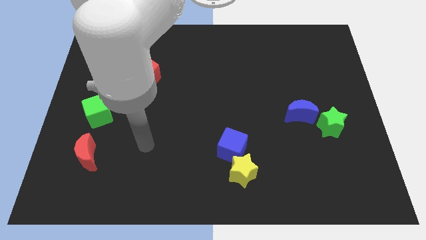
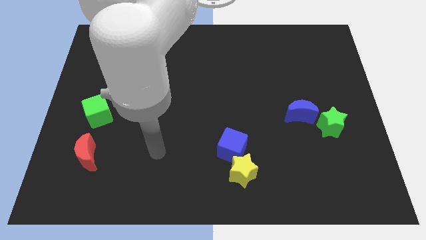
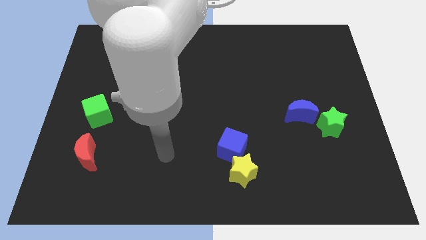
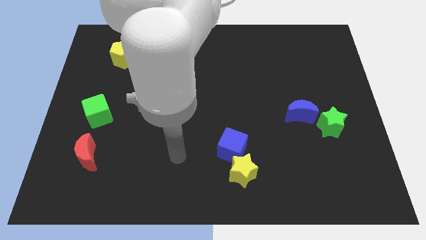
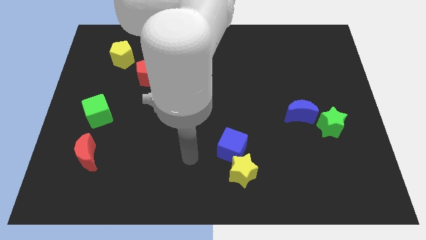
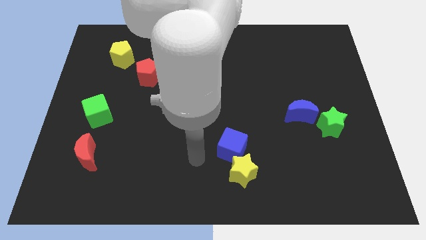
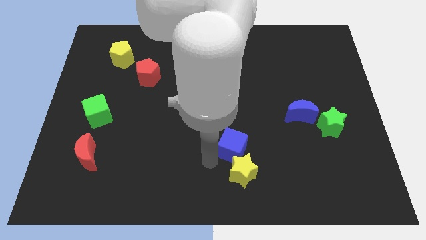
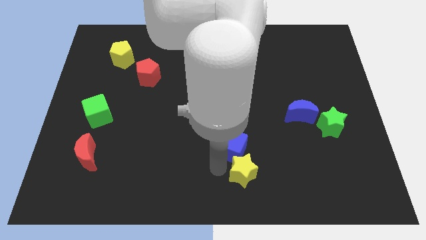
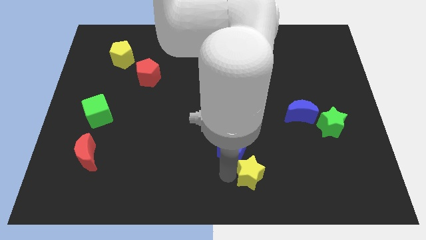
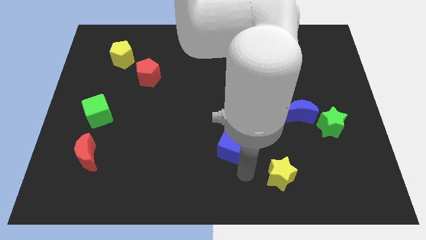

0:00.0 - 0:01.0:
pull the blue cube apart from the yellow star

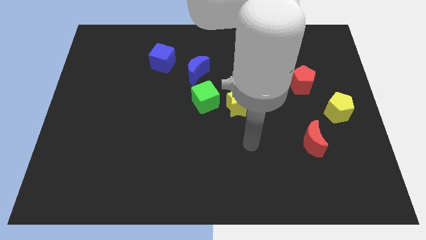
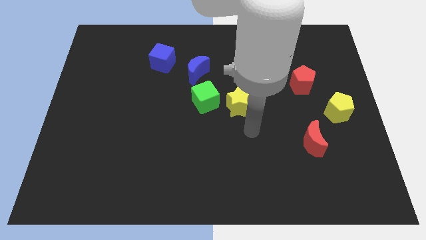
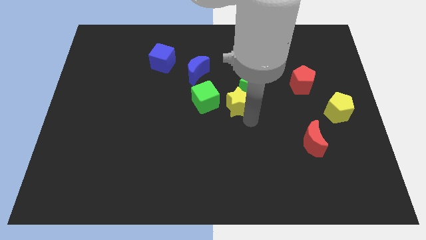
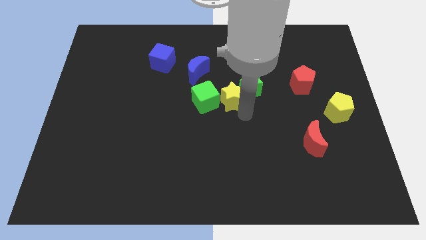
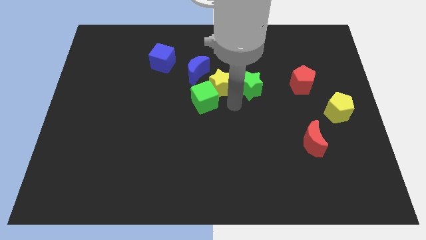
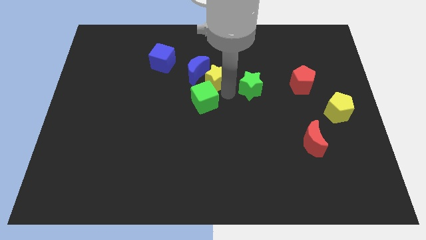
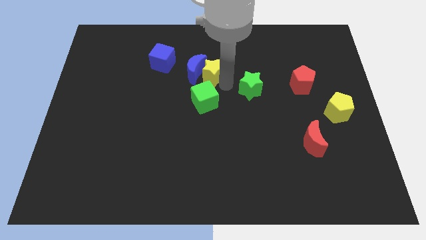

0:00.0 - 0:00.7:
move the green star away from the yellow star

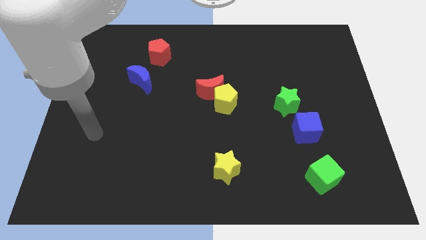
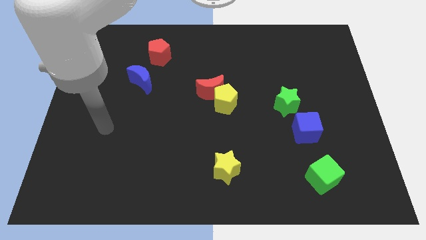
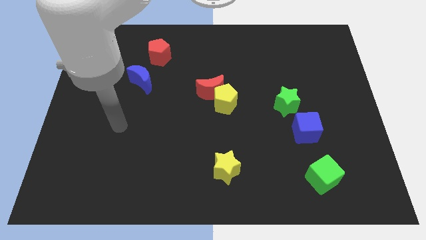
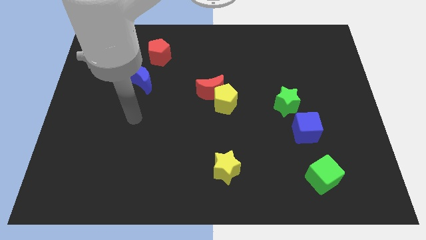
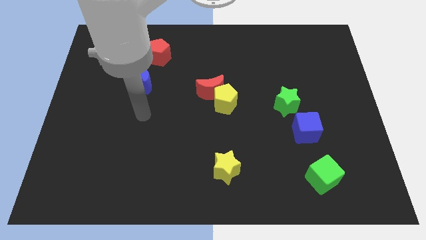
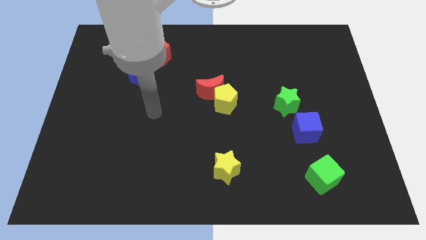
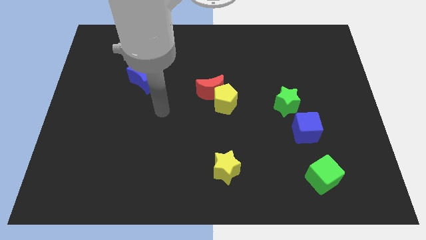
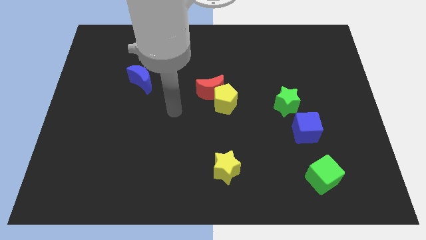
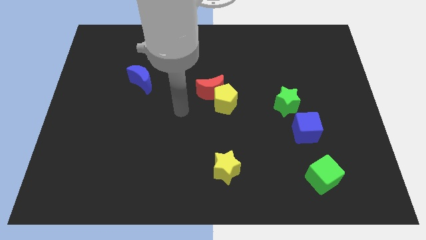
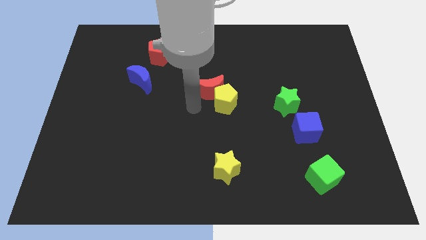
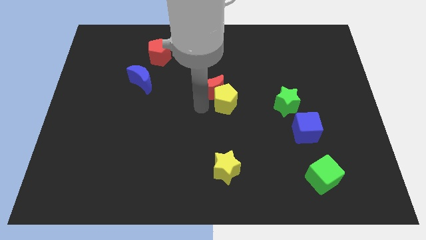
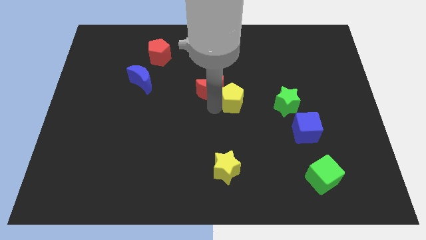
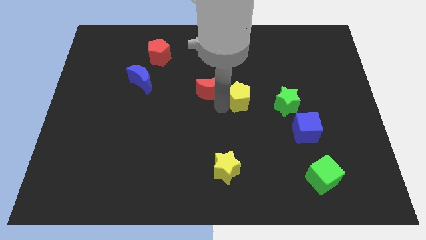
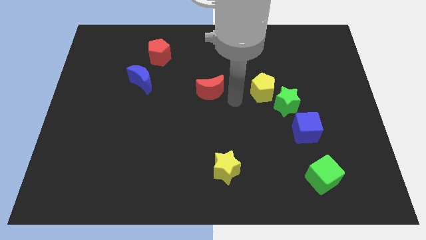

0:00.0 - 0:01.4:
separate the red moon from the yellow pentagon

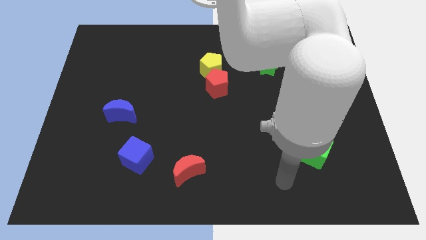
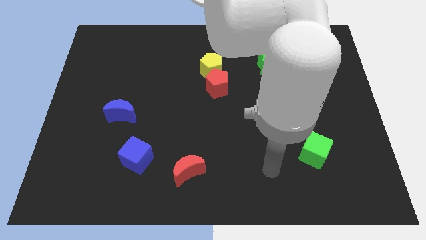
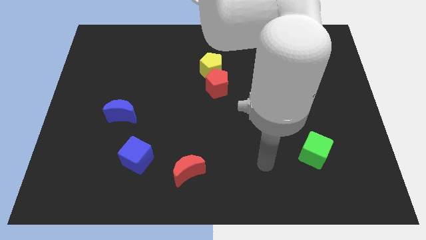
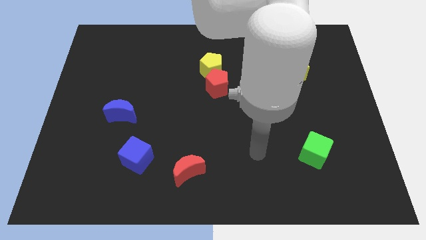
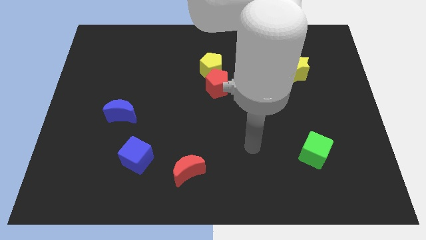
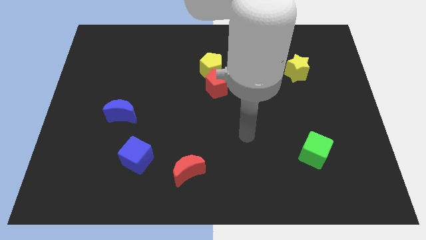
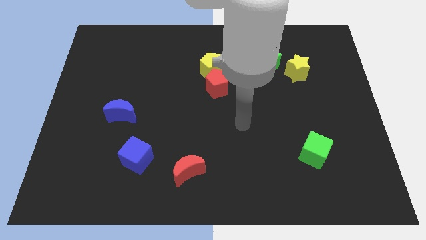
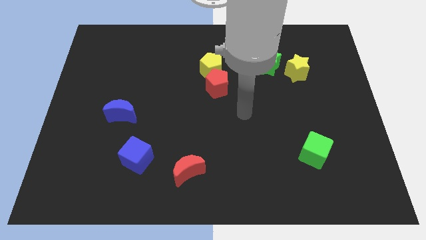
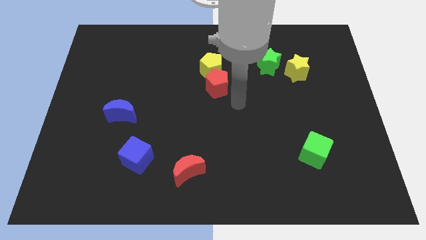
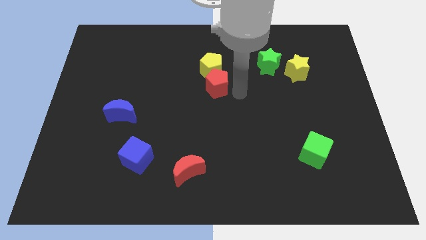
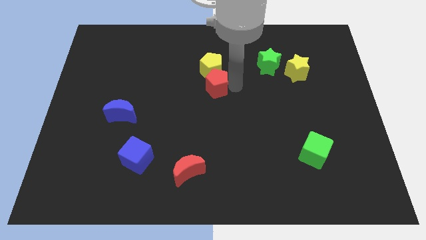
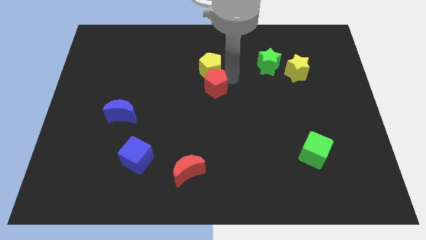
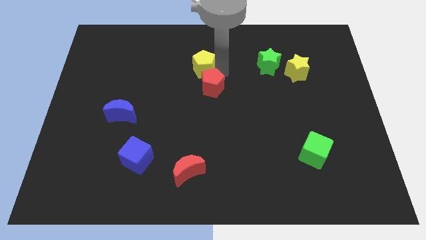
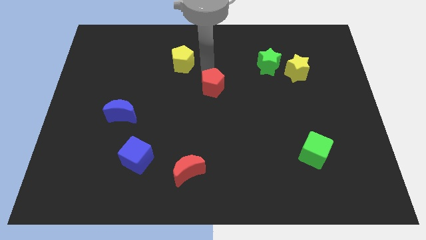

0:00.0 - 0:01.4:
move the red pentagon away from the yellow pentagon

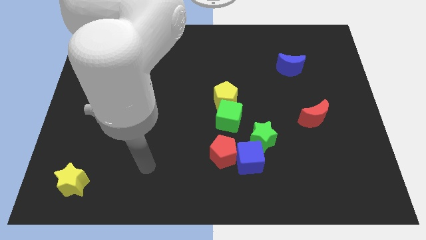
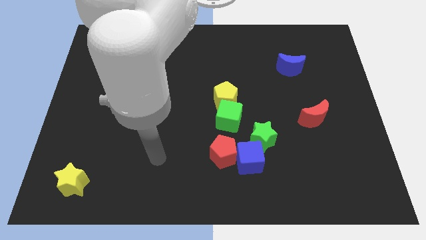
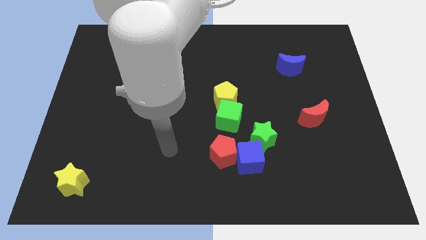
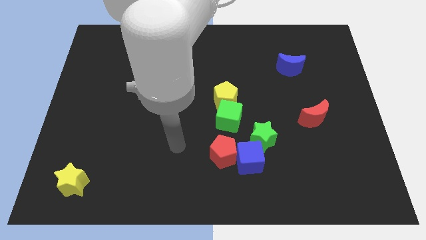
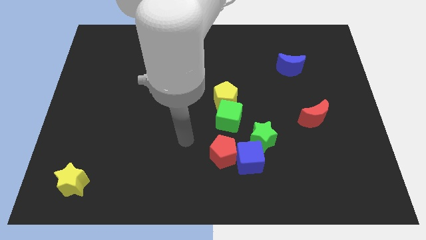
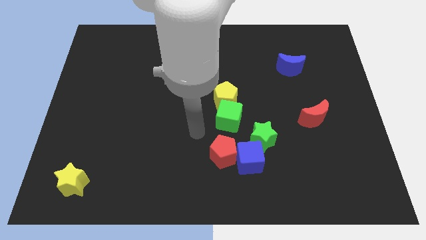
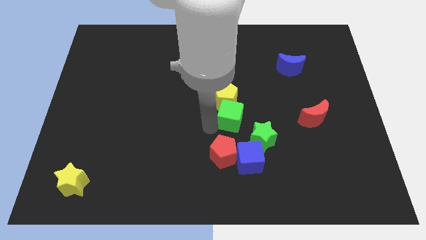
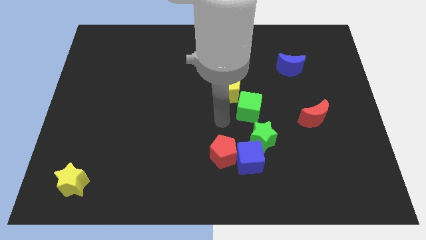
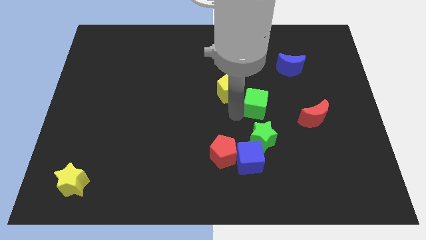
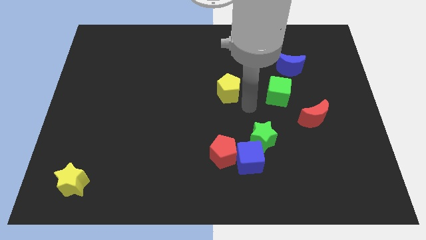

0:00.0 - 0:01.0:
pull the yellow pentagon apart from the green cube

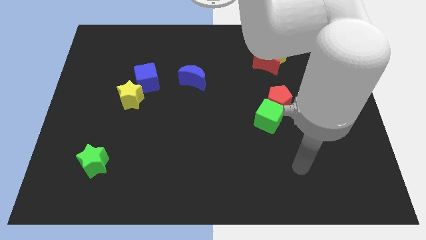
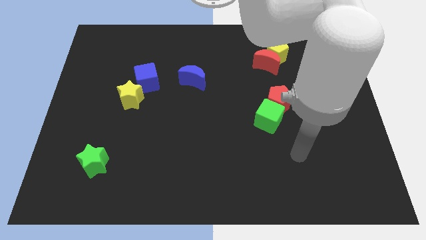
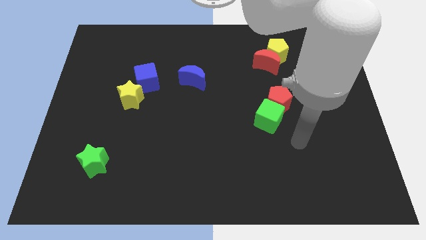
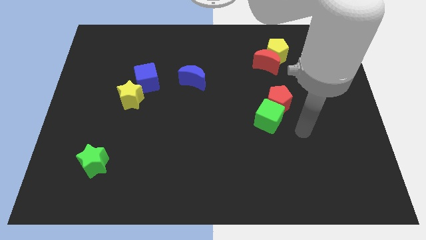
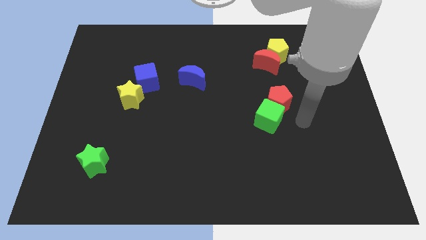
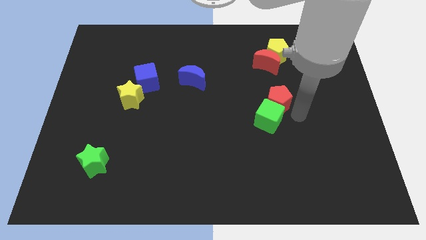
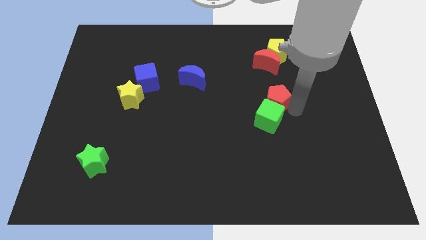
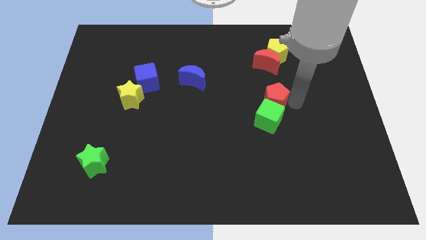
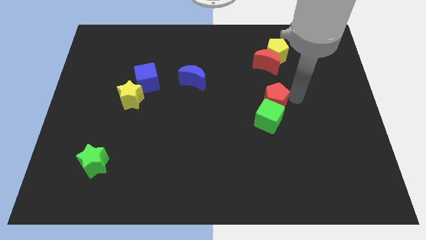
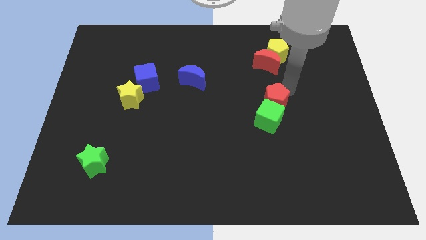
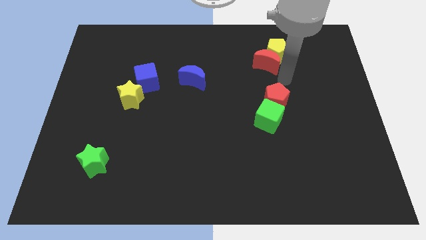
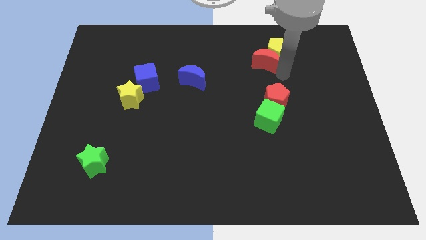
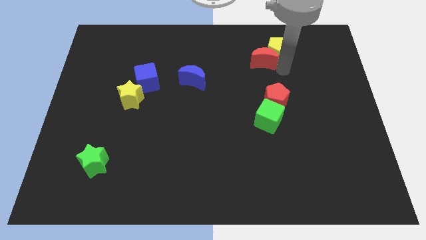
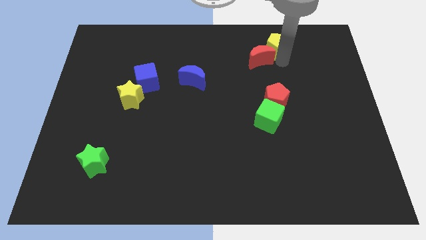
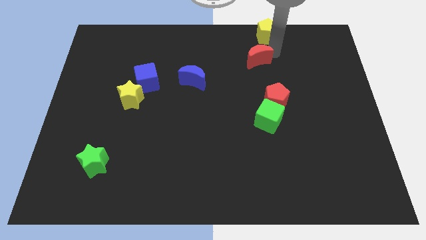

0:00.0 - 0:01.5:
pull the red moon apart from the yellow pentagon

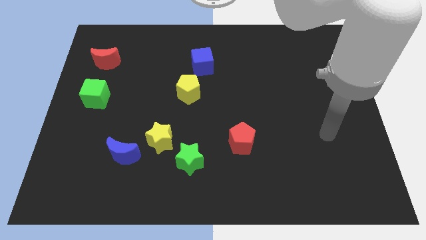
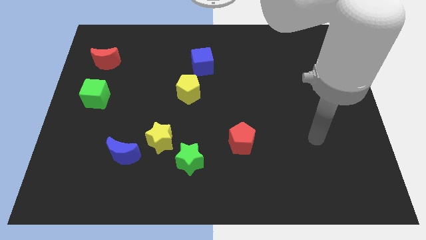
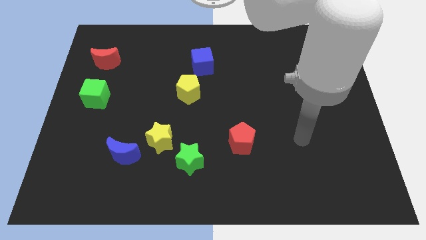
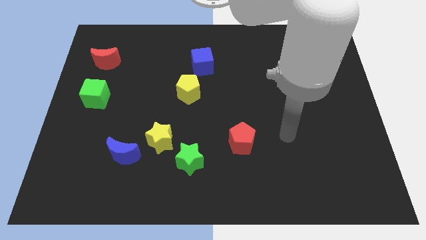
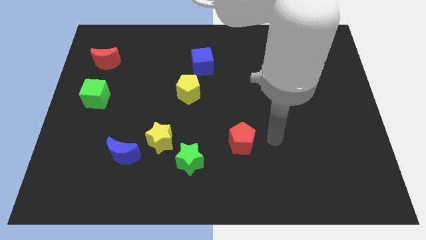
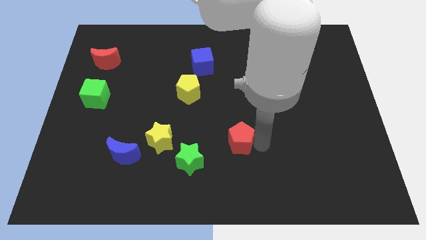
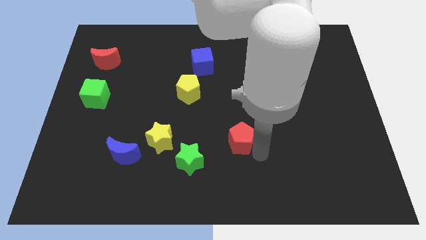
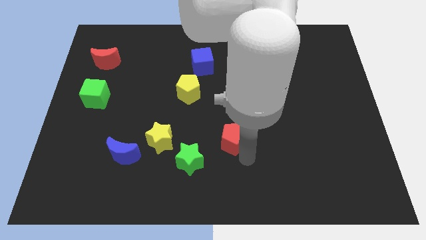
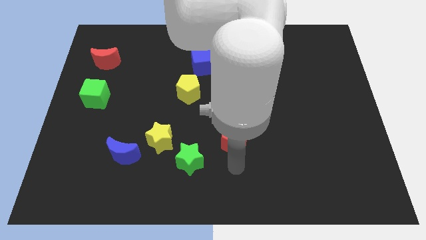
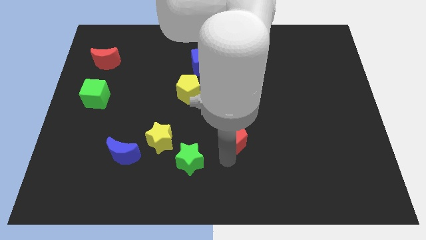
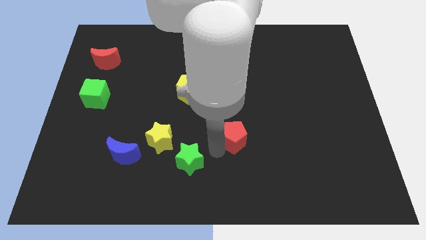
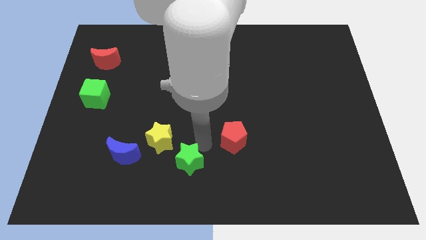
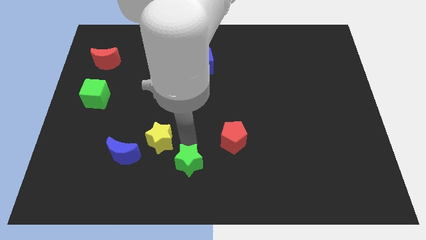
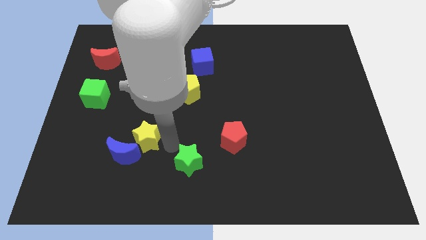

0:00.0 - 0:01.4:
separate the green star from the yellow star

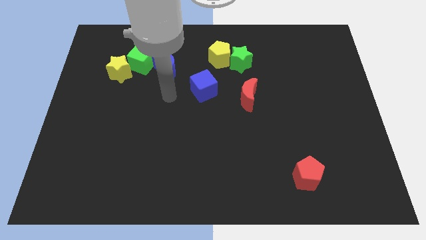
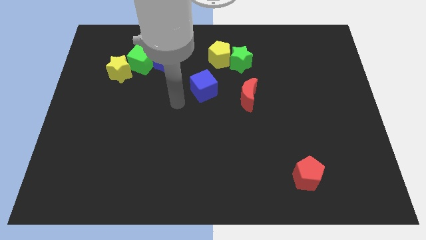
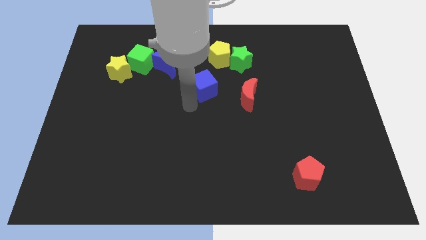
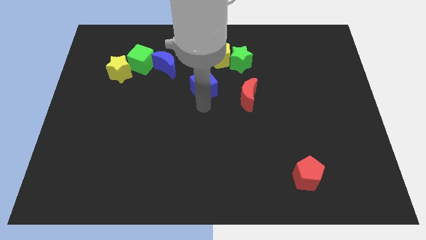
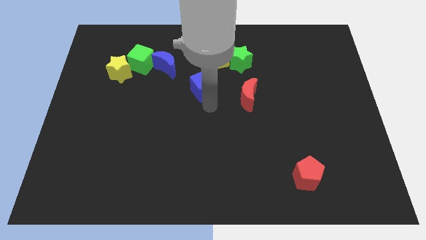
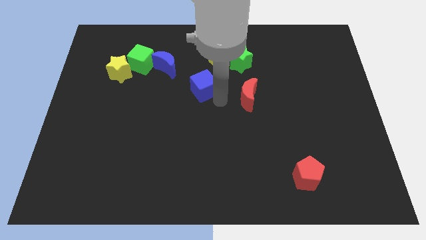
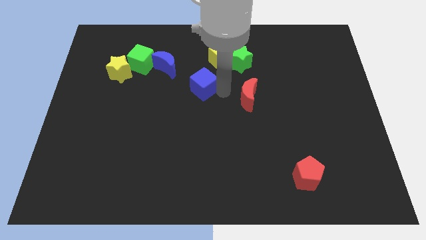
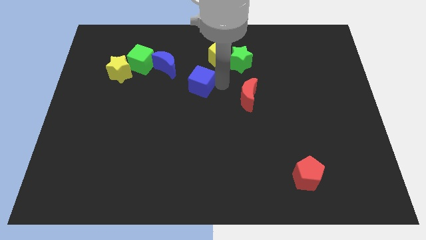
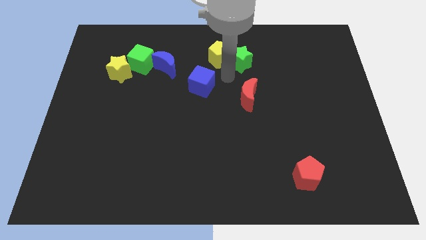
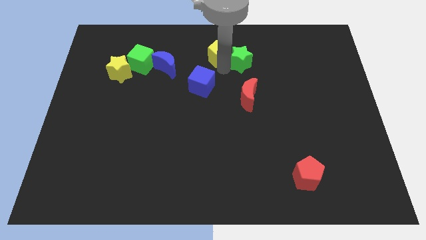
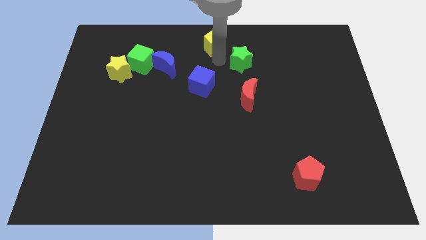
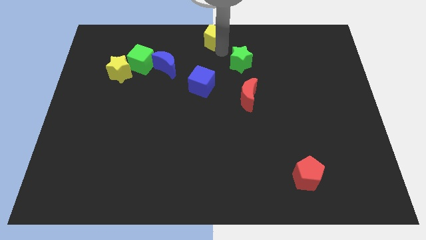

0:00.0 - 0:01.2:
move the green star away from the yellow pentagon
